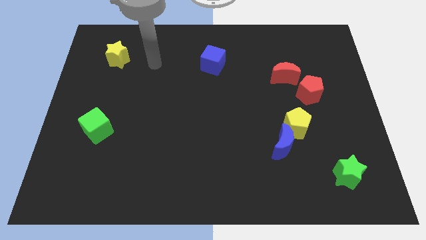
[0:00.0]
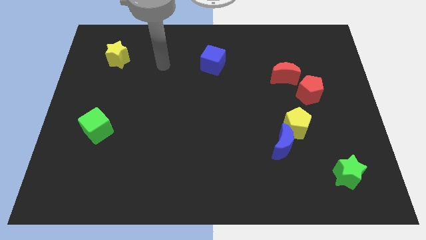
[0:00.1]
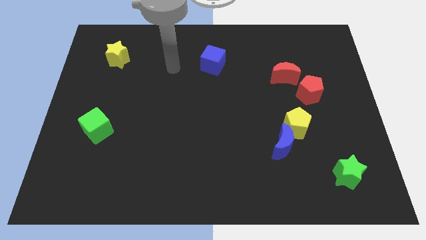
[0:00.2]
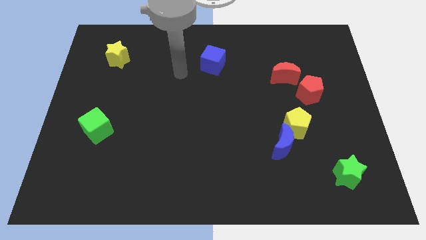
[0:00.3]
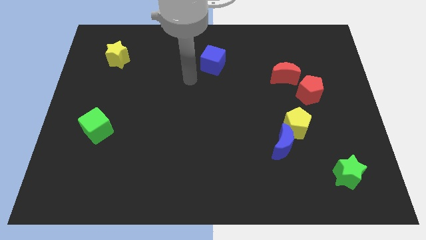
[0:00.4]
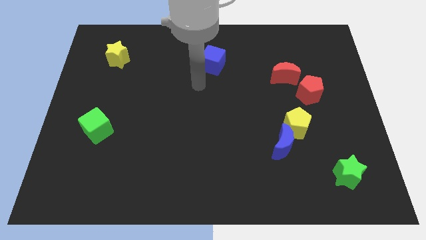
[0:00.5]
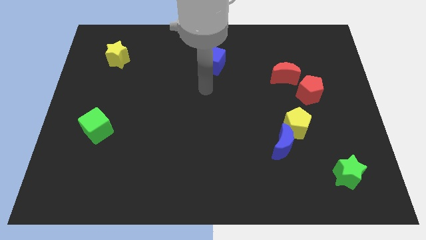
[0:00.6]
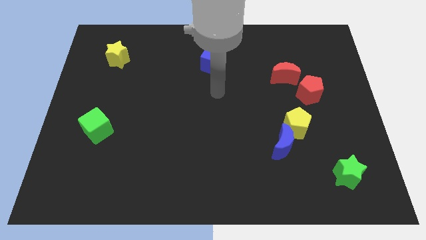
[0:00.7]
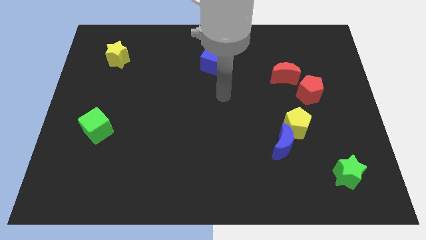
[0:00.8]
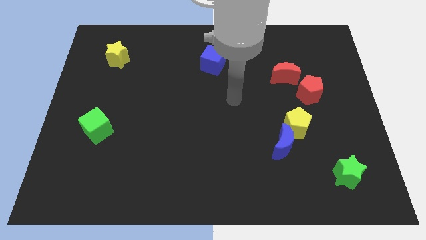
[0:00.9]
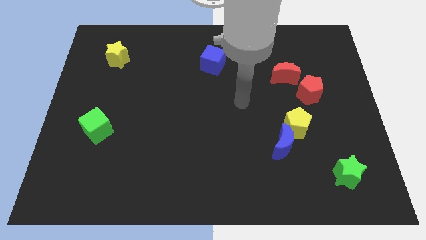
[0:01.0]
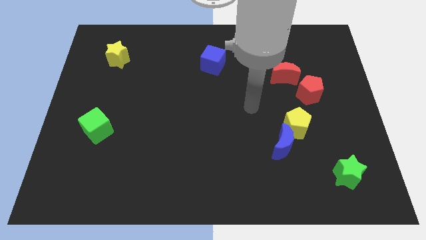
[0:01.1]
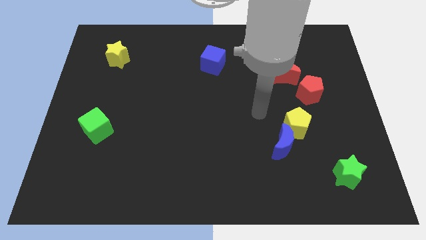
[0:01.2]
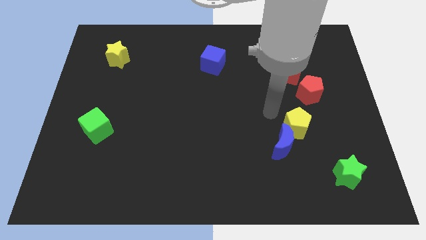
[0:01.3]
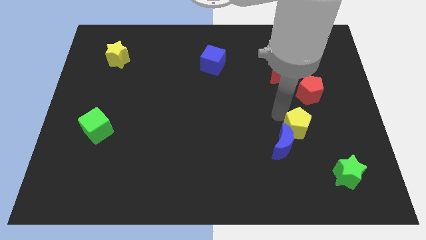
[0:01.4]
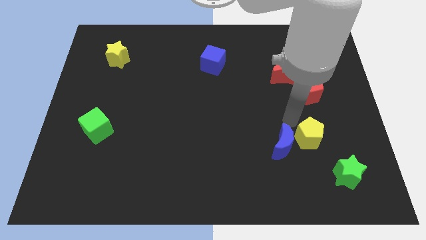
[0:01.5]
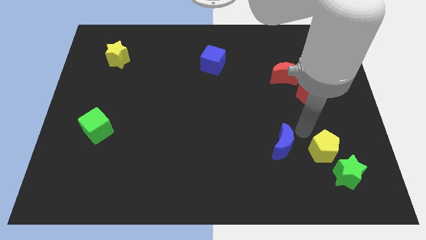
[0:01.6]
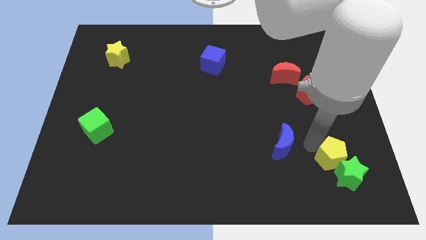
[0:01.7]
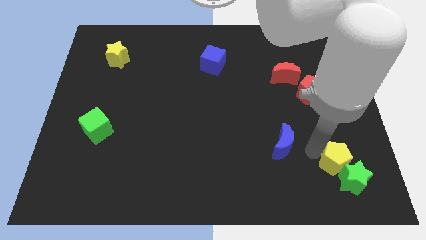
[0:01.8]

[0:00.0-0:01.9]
move the blue moon away from the yellow pentagon

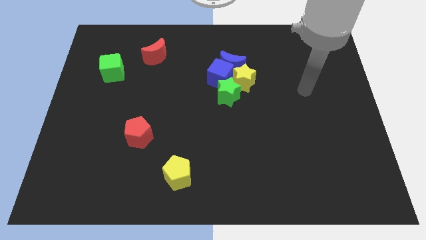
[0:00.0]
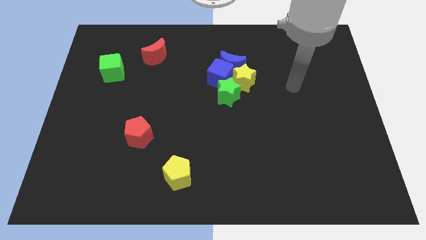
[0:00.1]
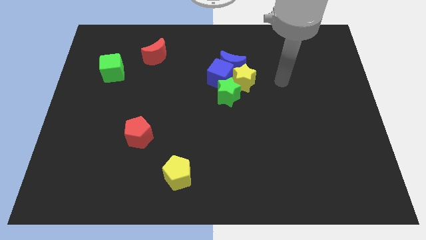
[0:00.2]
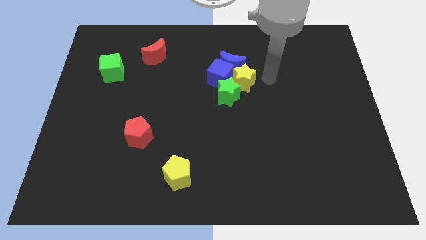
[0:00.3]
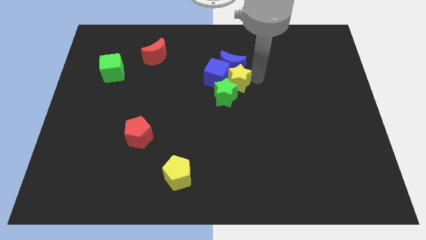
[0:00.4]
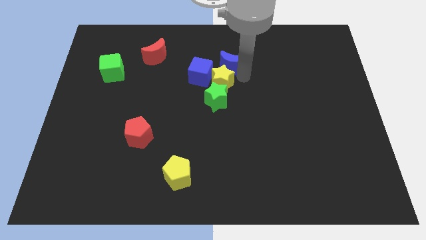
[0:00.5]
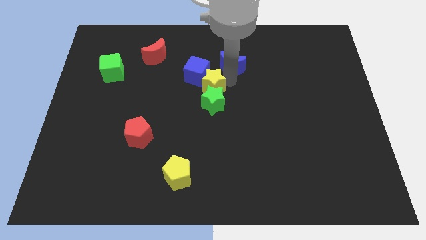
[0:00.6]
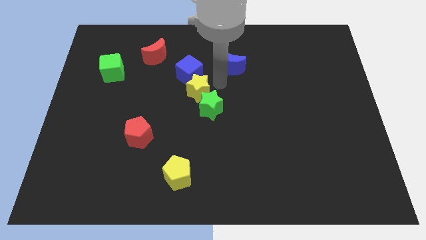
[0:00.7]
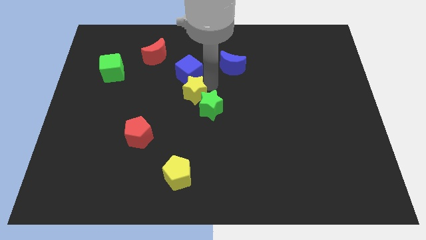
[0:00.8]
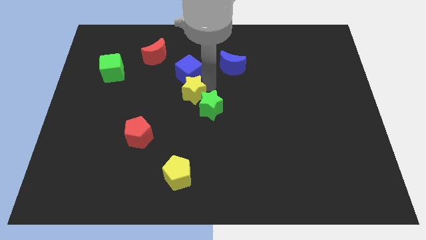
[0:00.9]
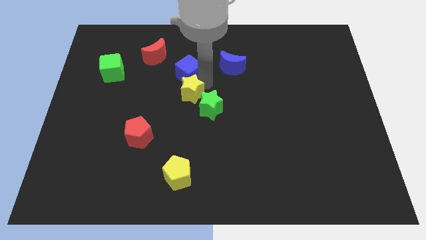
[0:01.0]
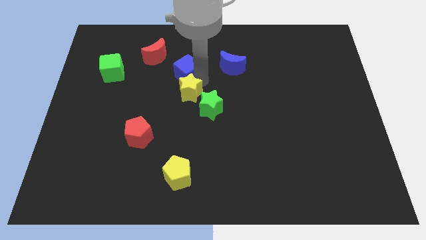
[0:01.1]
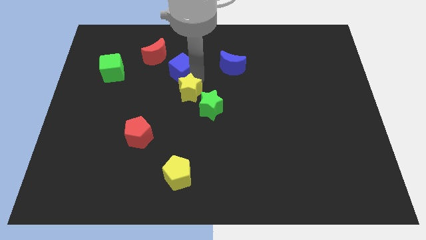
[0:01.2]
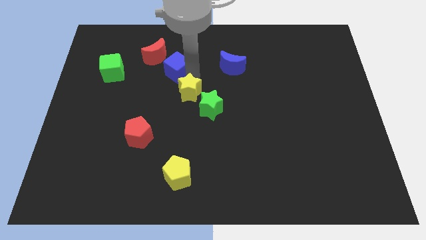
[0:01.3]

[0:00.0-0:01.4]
separate the blue cube from the group

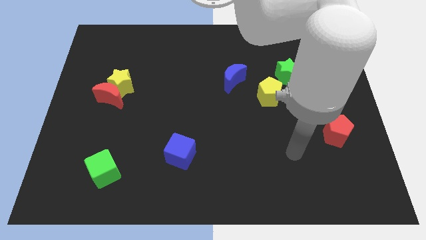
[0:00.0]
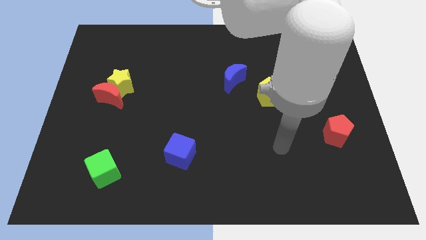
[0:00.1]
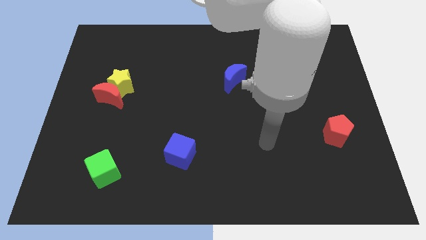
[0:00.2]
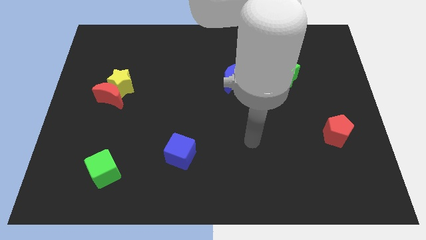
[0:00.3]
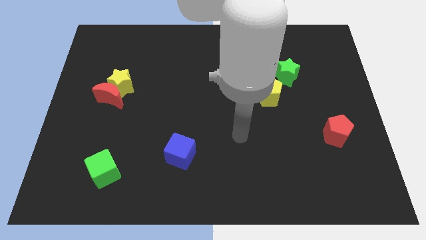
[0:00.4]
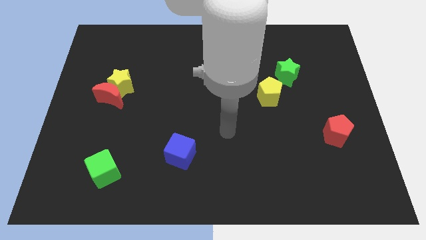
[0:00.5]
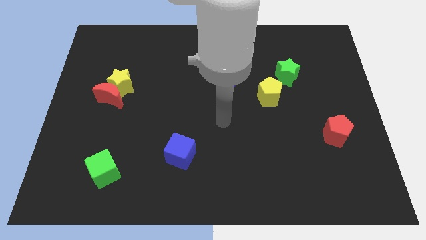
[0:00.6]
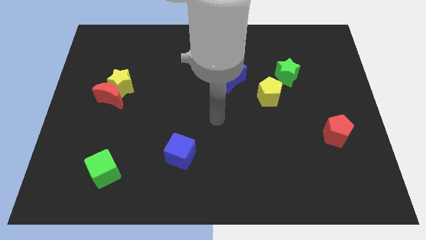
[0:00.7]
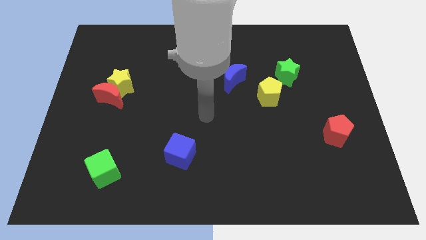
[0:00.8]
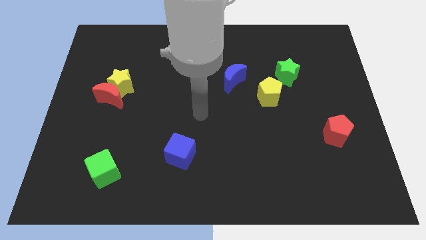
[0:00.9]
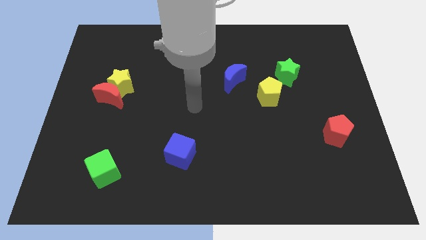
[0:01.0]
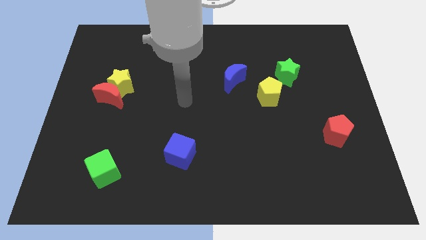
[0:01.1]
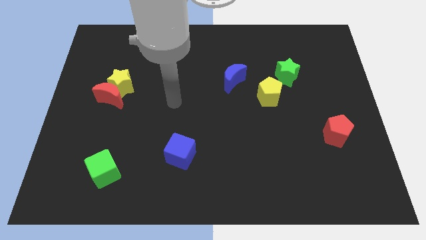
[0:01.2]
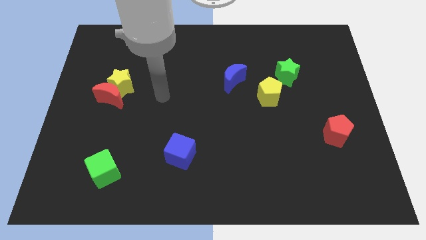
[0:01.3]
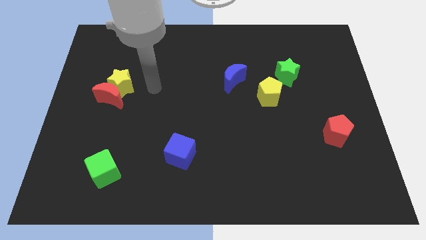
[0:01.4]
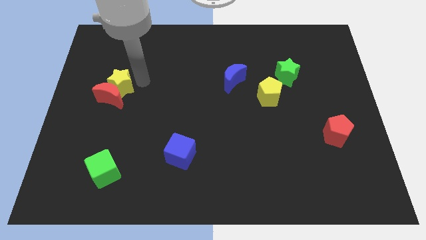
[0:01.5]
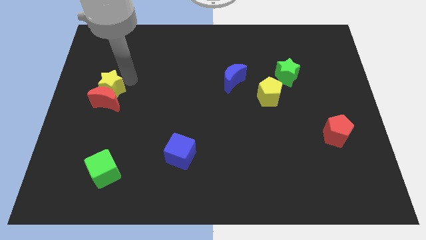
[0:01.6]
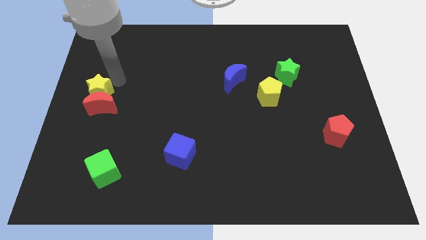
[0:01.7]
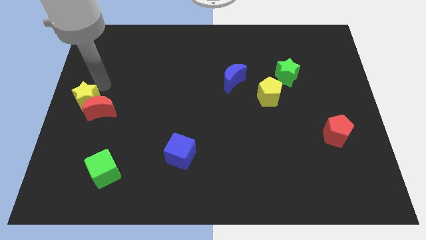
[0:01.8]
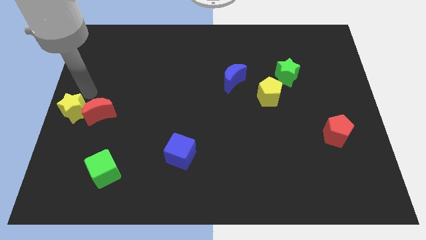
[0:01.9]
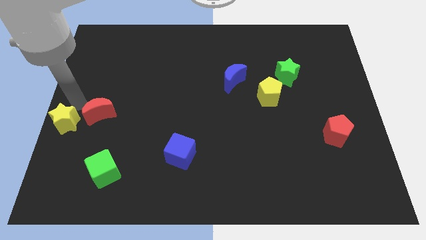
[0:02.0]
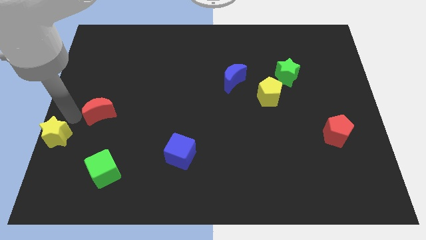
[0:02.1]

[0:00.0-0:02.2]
separate the red moon from the yellow star

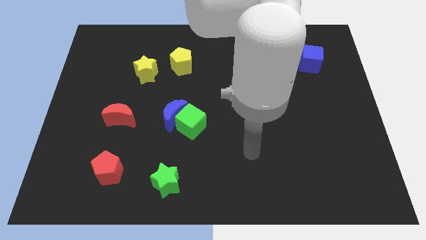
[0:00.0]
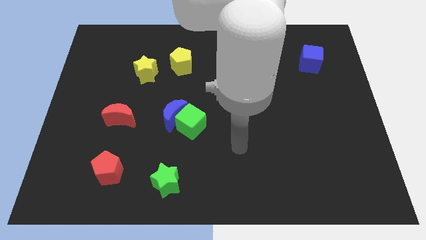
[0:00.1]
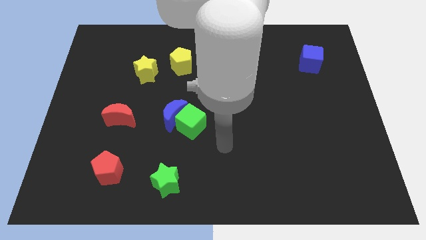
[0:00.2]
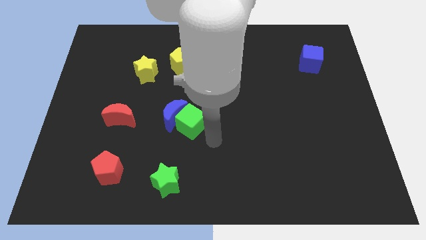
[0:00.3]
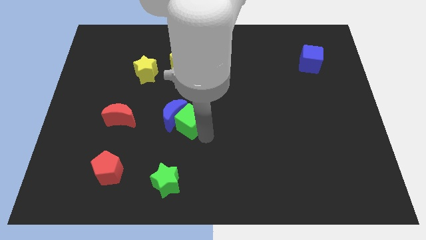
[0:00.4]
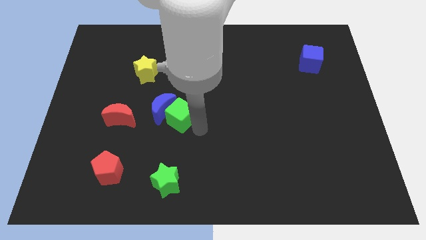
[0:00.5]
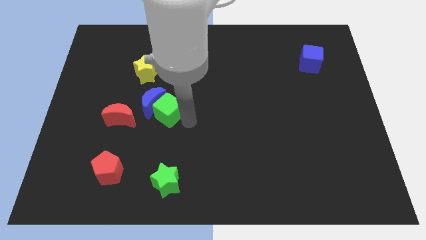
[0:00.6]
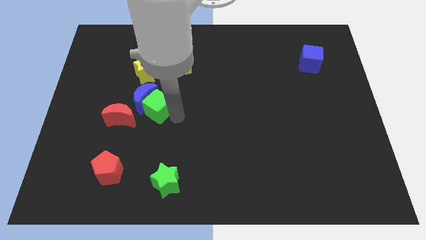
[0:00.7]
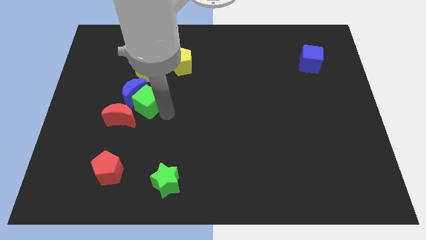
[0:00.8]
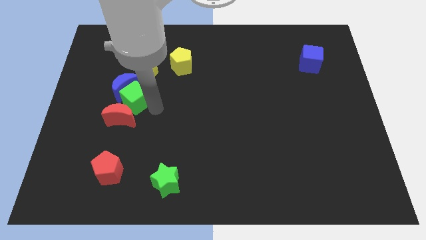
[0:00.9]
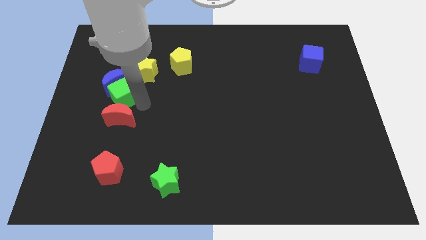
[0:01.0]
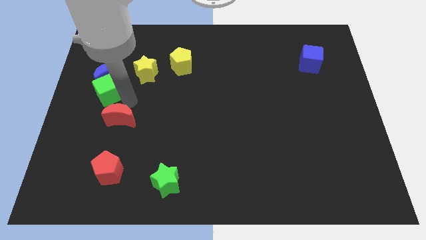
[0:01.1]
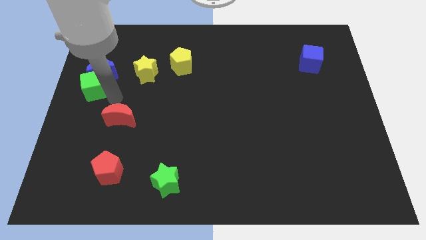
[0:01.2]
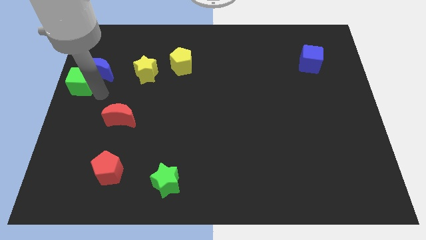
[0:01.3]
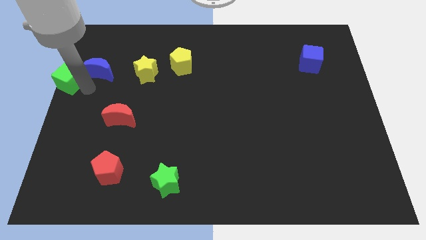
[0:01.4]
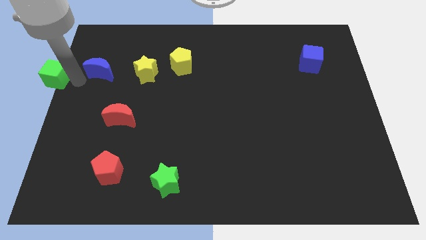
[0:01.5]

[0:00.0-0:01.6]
pull the blue moon apart from the green cube

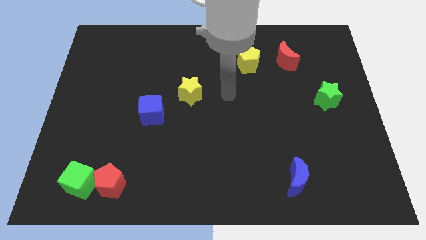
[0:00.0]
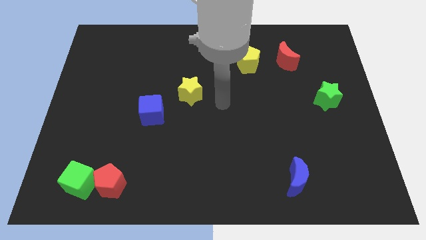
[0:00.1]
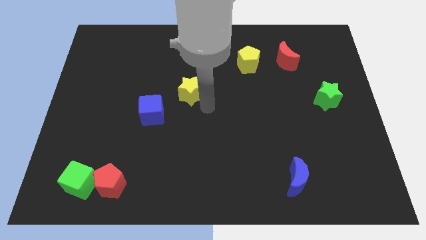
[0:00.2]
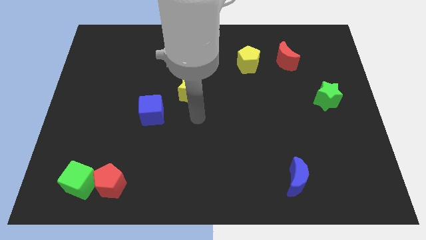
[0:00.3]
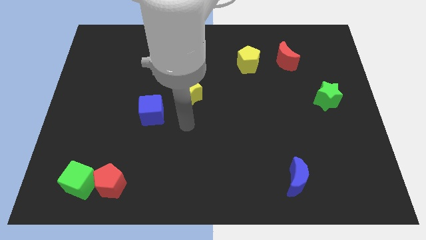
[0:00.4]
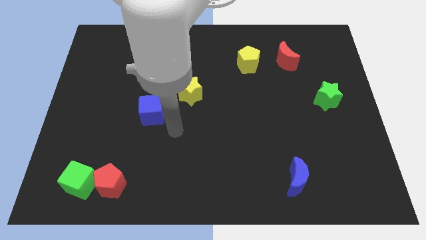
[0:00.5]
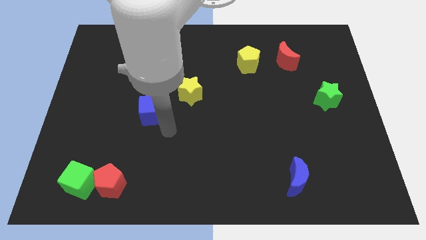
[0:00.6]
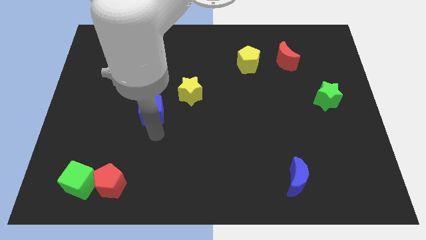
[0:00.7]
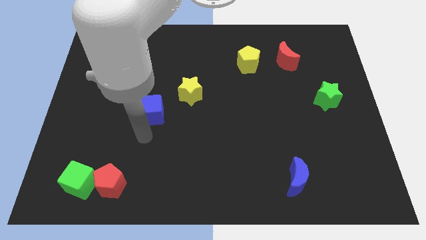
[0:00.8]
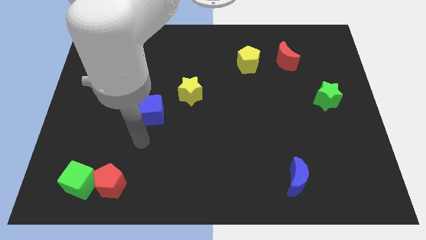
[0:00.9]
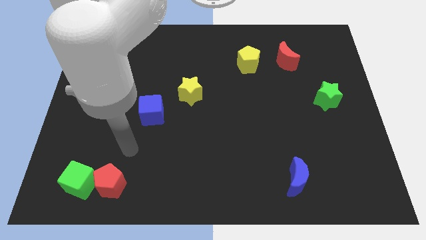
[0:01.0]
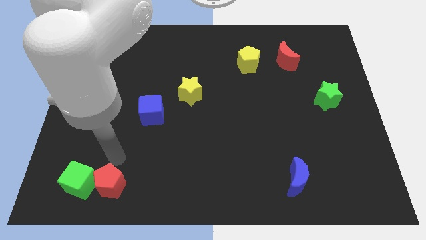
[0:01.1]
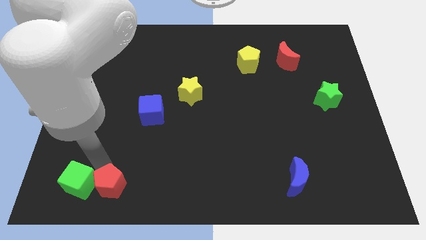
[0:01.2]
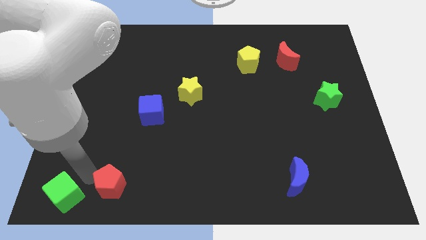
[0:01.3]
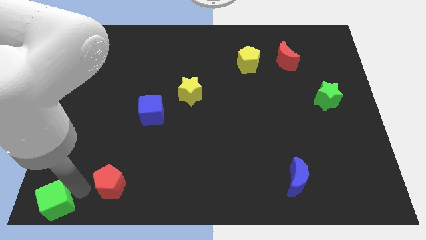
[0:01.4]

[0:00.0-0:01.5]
move the red pentagon away from the green cube

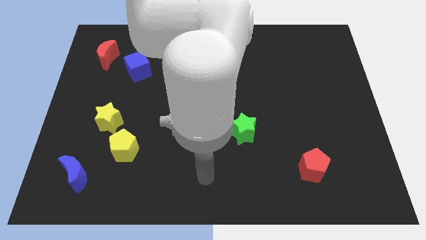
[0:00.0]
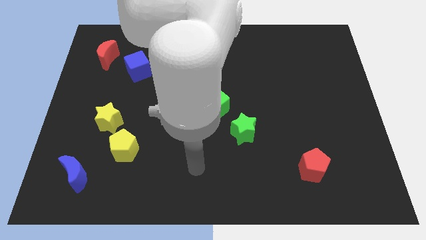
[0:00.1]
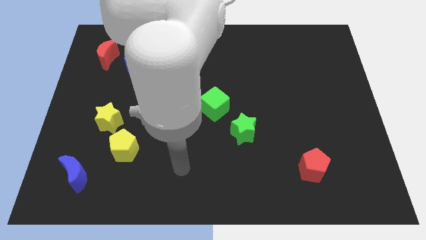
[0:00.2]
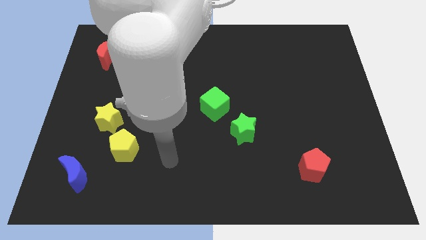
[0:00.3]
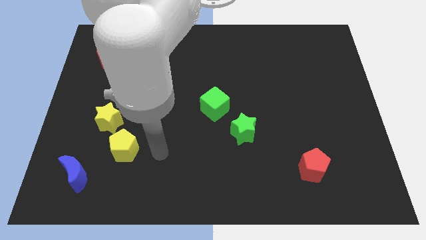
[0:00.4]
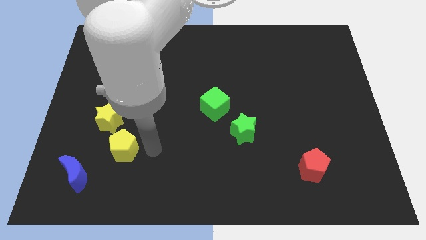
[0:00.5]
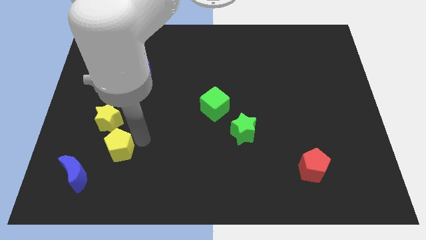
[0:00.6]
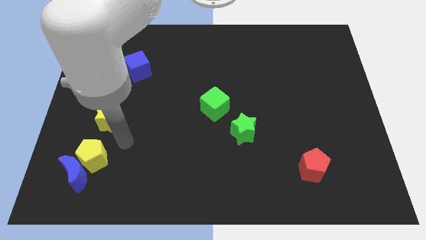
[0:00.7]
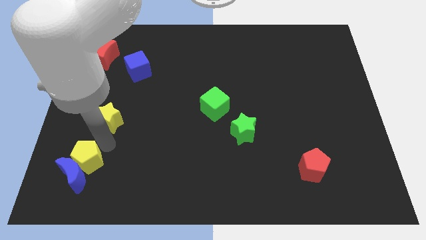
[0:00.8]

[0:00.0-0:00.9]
pull the yellow star apart from the yellow pentagon
